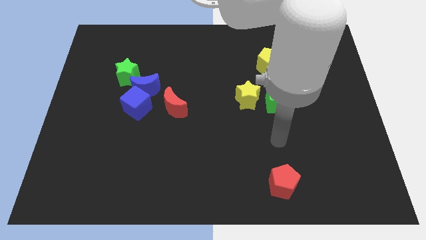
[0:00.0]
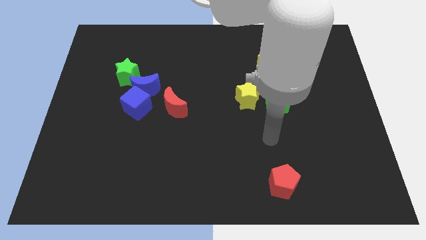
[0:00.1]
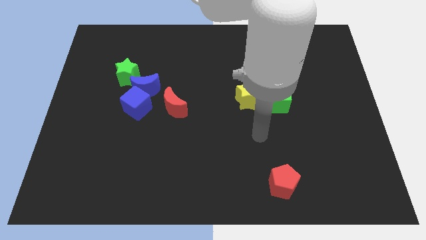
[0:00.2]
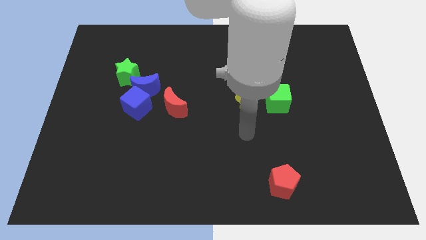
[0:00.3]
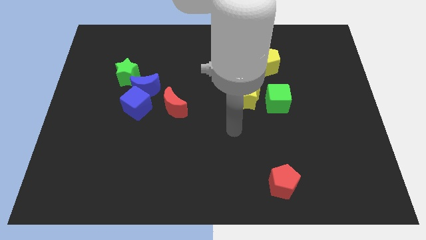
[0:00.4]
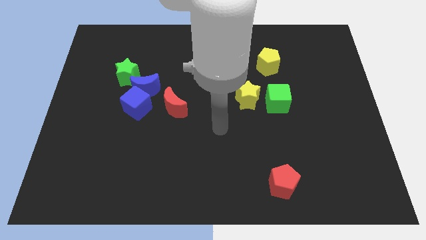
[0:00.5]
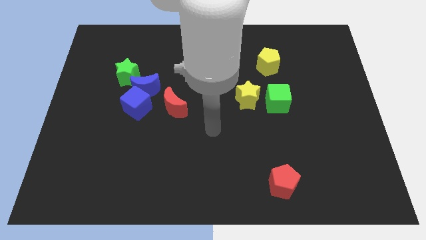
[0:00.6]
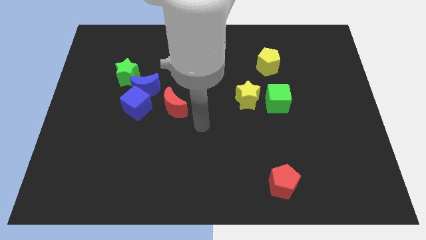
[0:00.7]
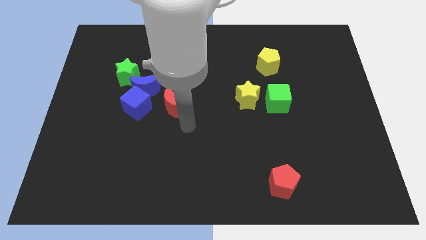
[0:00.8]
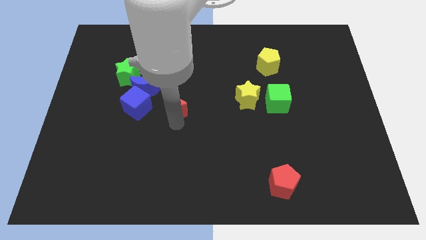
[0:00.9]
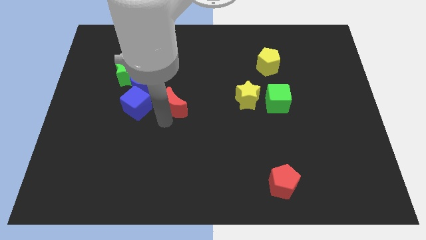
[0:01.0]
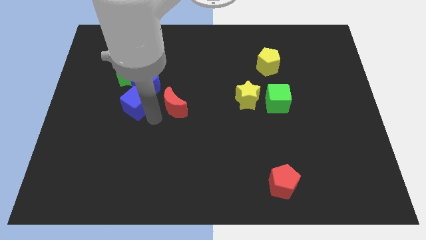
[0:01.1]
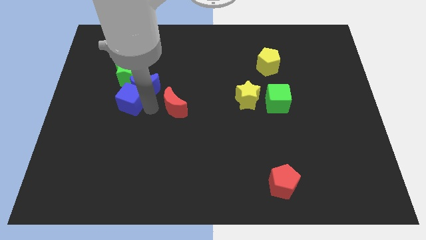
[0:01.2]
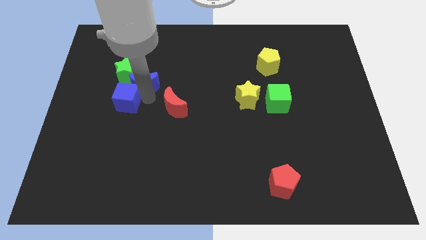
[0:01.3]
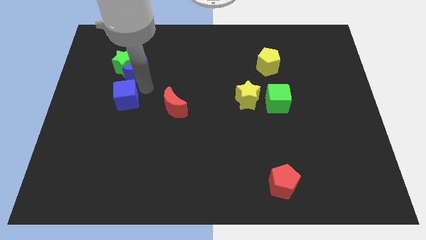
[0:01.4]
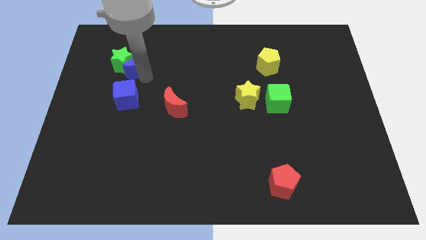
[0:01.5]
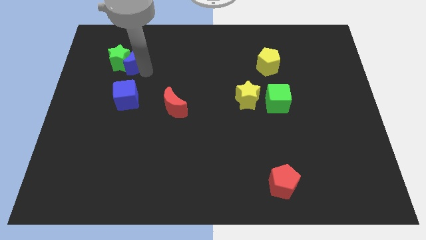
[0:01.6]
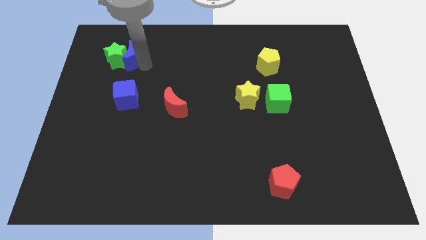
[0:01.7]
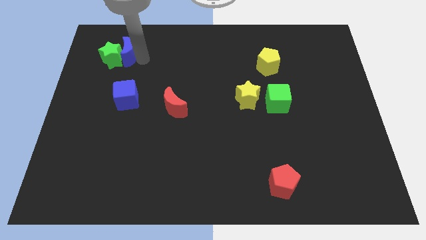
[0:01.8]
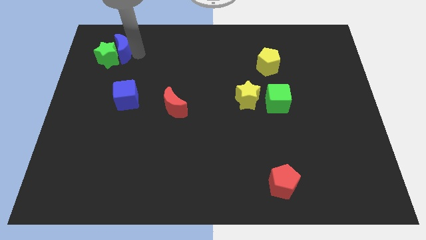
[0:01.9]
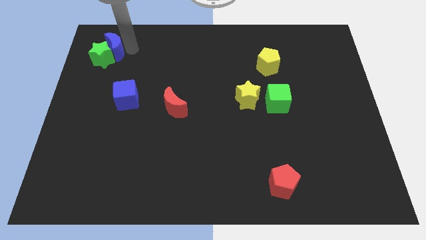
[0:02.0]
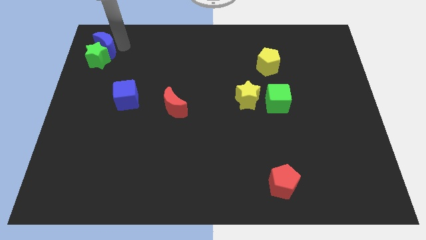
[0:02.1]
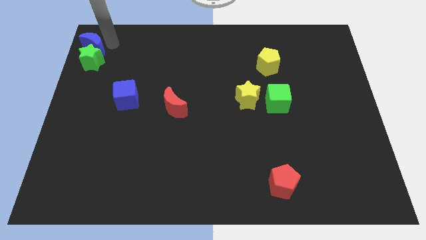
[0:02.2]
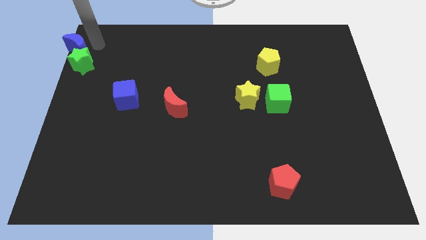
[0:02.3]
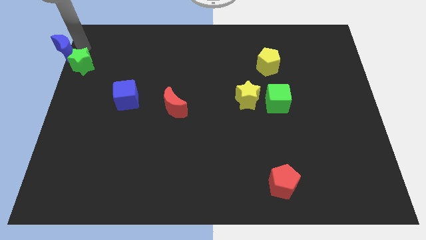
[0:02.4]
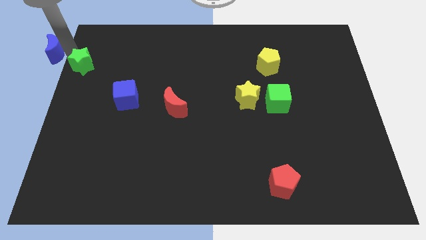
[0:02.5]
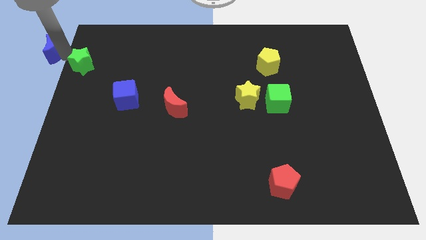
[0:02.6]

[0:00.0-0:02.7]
move the green star away from the blue moon

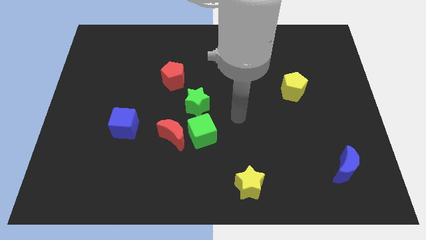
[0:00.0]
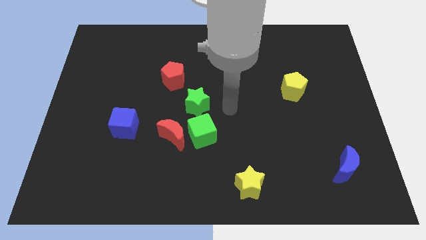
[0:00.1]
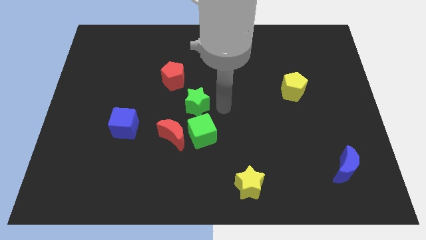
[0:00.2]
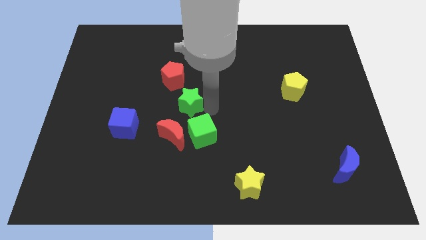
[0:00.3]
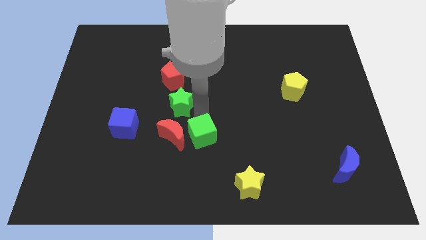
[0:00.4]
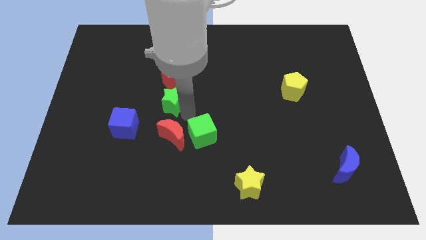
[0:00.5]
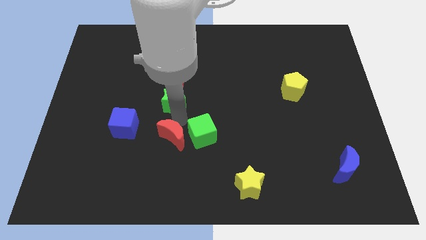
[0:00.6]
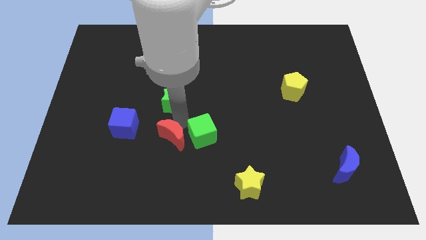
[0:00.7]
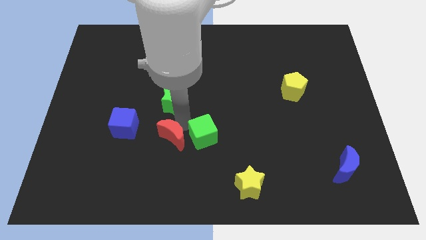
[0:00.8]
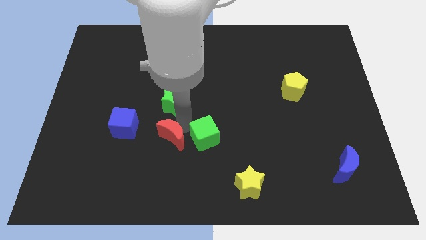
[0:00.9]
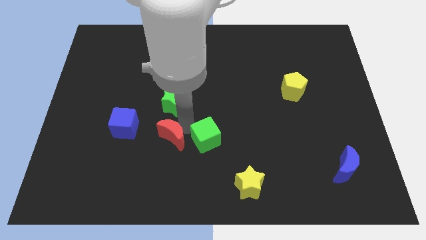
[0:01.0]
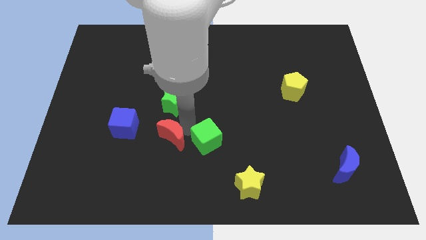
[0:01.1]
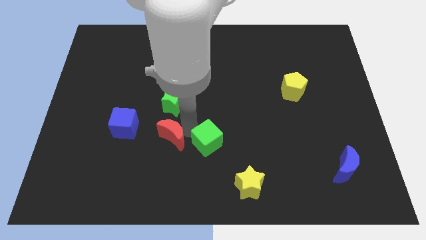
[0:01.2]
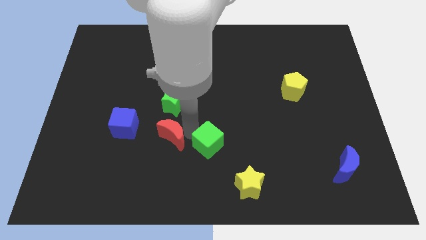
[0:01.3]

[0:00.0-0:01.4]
separate the green cube from the red moon and green star

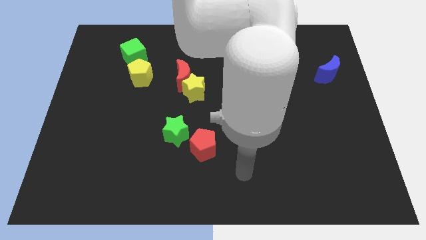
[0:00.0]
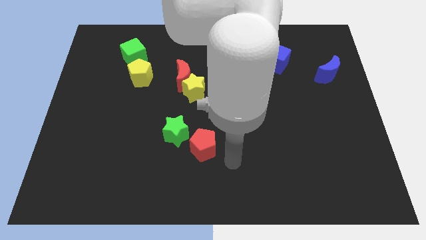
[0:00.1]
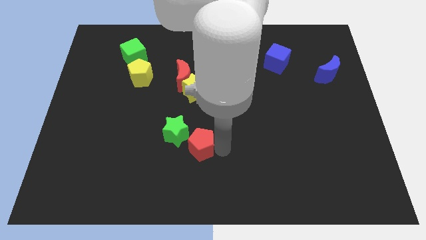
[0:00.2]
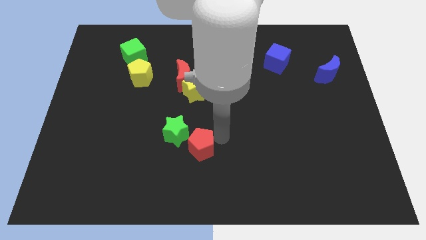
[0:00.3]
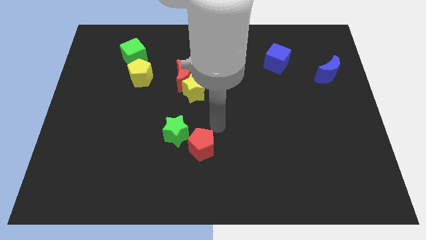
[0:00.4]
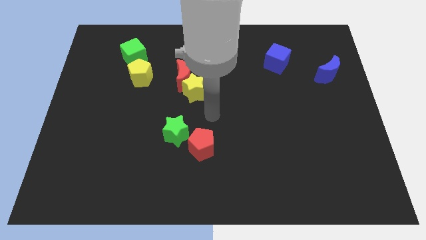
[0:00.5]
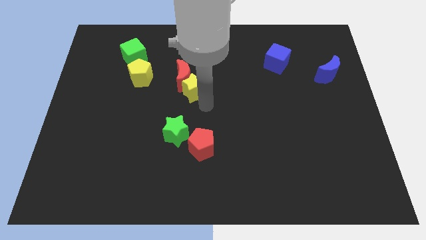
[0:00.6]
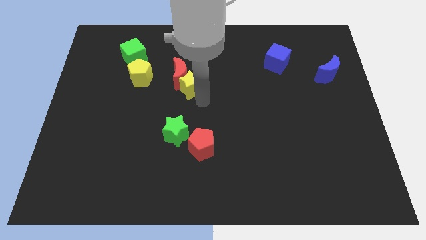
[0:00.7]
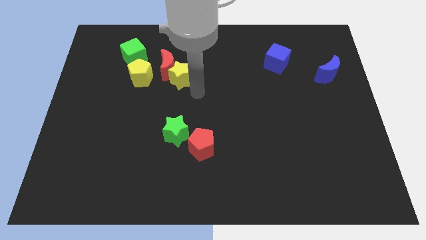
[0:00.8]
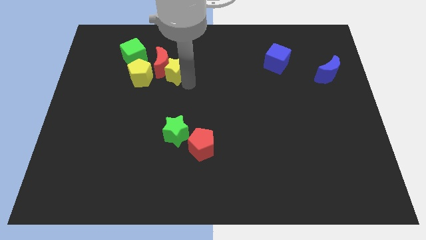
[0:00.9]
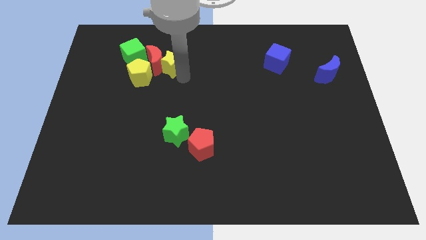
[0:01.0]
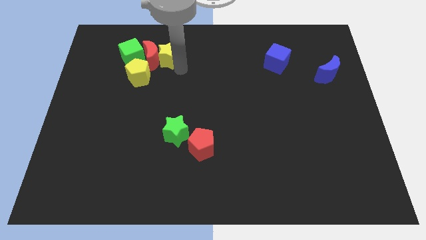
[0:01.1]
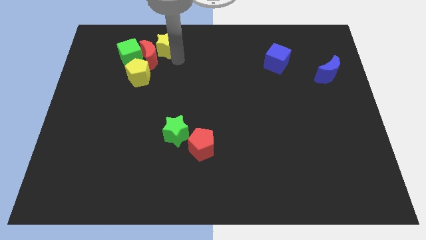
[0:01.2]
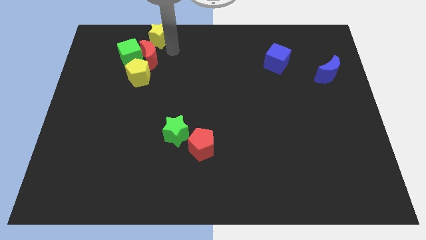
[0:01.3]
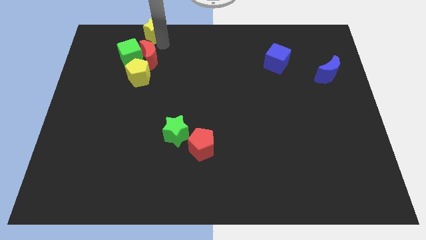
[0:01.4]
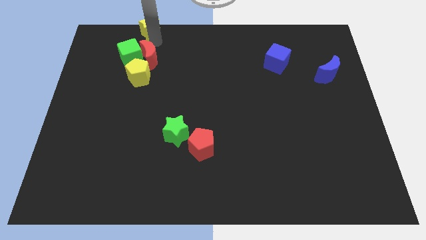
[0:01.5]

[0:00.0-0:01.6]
pull the red moon apart from the yellow star

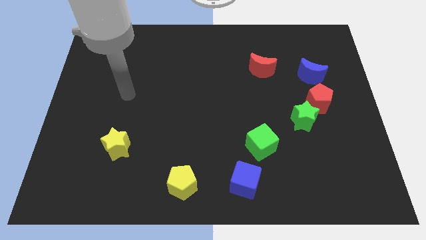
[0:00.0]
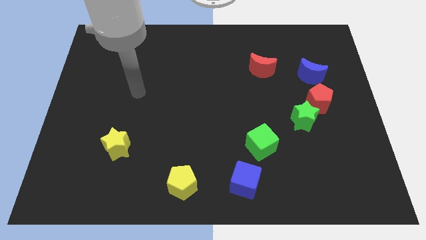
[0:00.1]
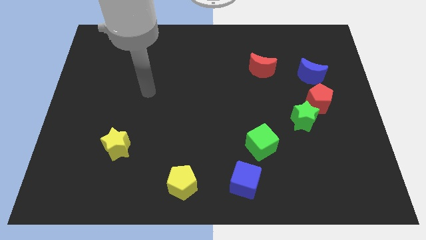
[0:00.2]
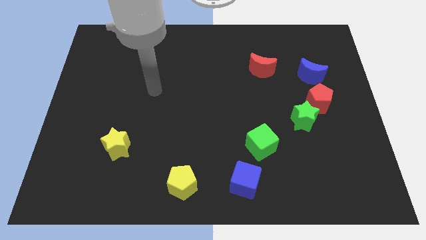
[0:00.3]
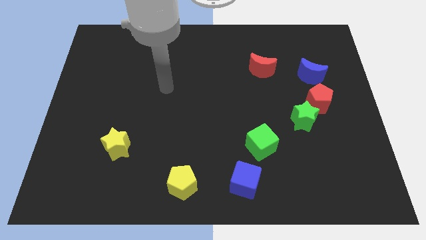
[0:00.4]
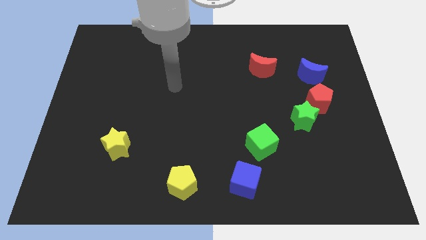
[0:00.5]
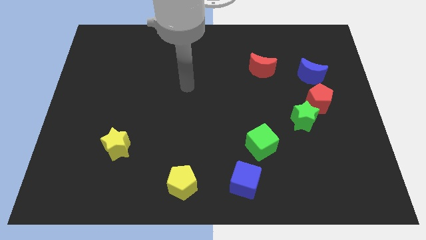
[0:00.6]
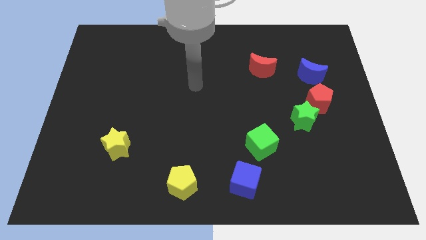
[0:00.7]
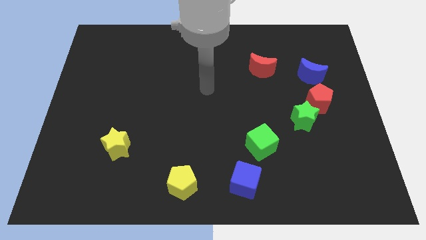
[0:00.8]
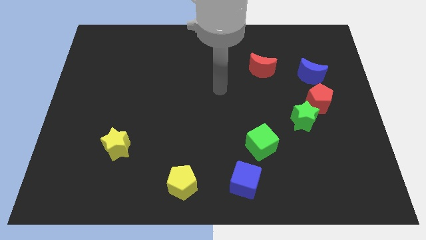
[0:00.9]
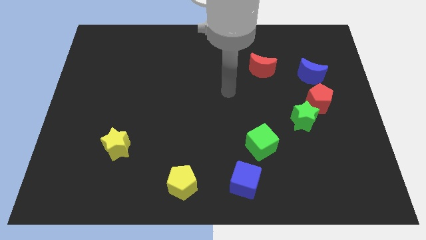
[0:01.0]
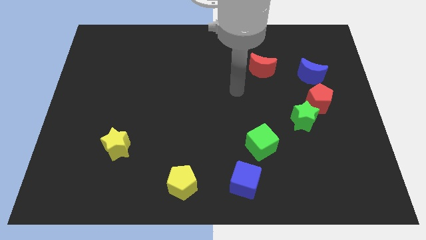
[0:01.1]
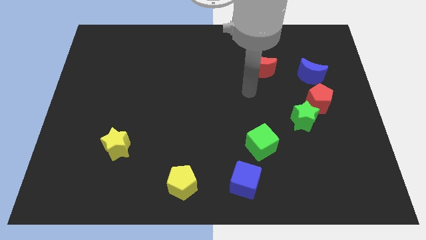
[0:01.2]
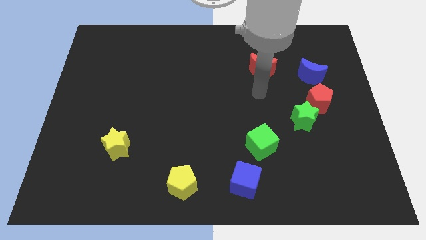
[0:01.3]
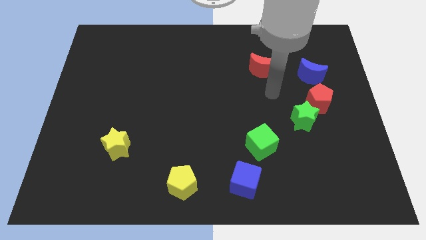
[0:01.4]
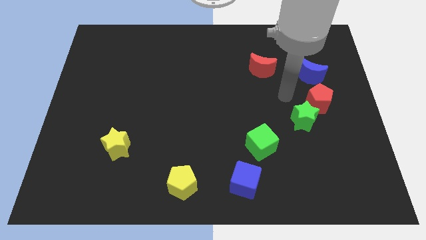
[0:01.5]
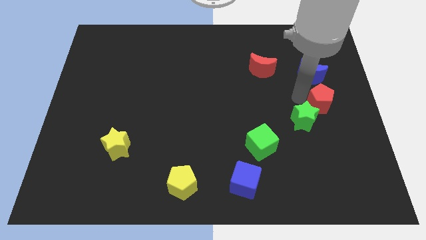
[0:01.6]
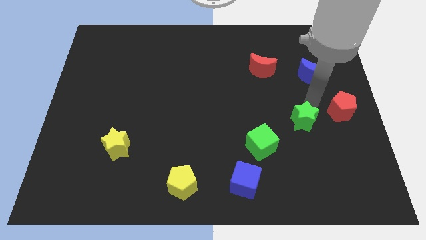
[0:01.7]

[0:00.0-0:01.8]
separate the green star from the red pentagon

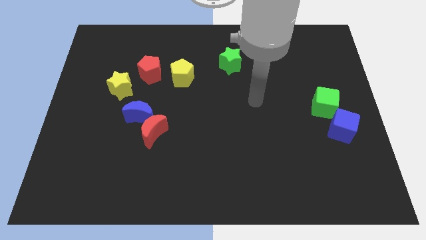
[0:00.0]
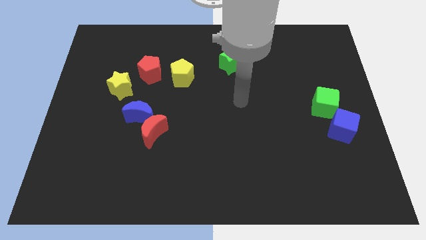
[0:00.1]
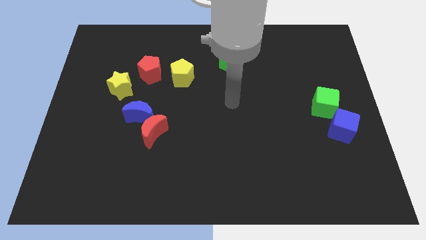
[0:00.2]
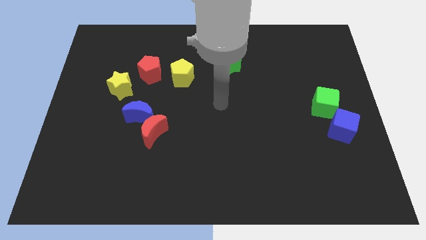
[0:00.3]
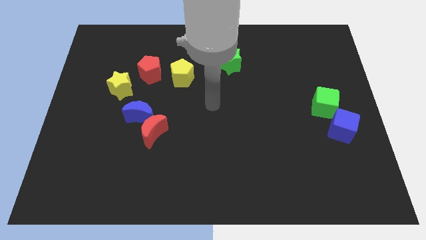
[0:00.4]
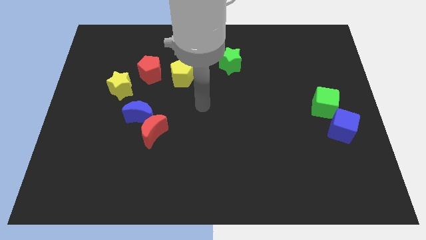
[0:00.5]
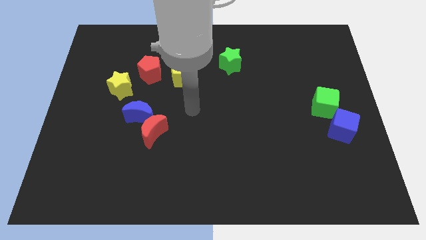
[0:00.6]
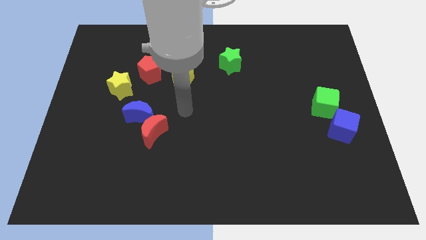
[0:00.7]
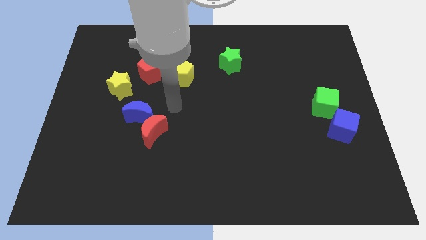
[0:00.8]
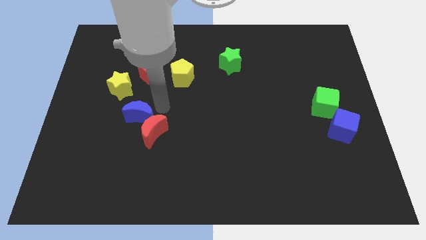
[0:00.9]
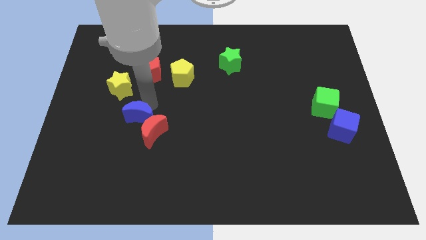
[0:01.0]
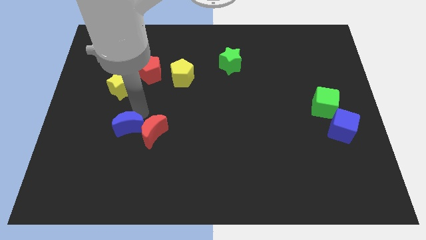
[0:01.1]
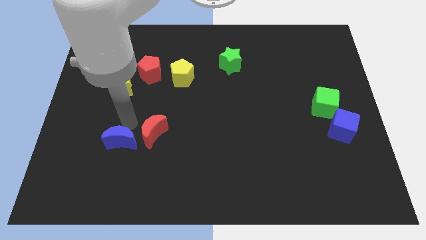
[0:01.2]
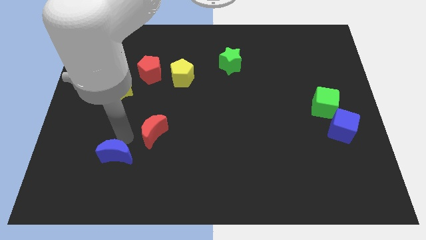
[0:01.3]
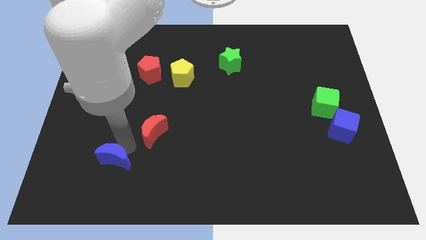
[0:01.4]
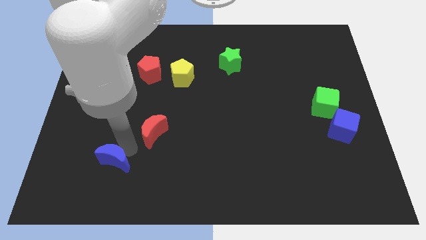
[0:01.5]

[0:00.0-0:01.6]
pull the red moon apart from the blue moon

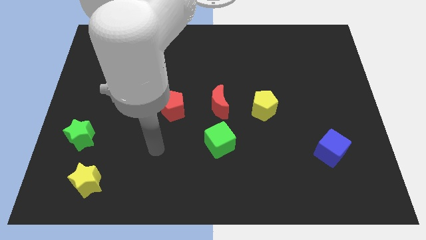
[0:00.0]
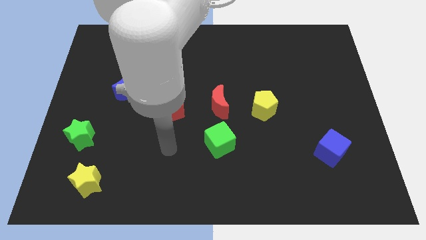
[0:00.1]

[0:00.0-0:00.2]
move the red moon away from the green cube

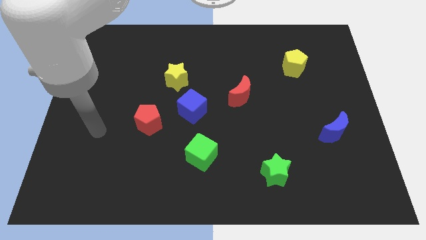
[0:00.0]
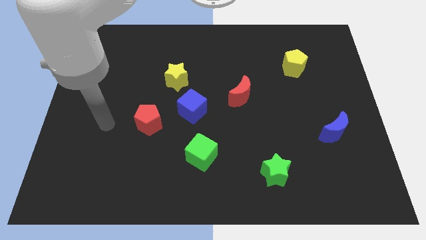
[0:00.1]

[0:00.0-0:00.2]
separate the blue cube from the yellow star
